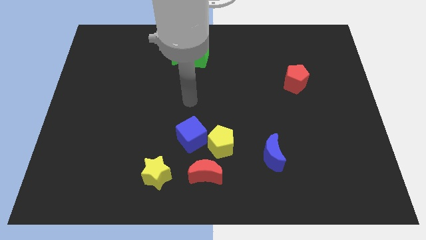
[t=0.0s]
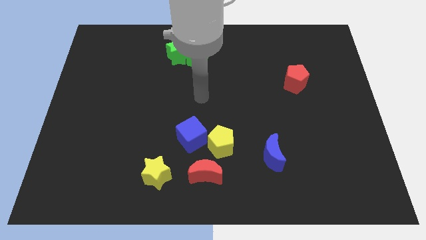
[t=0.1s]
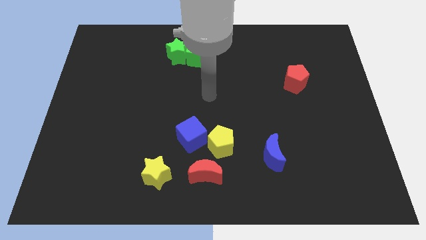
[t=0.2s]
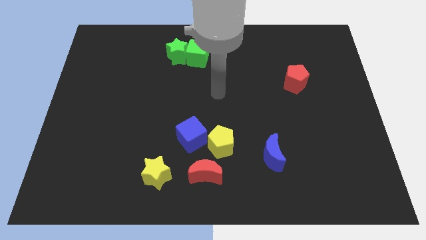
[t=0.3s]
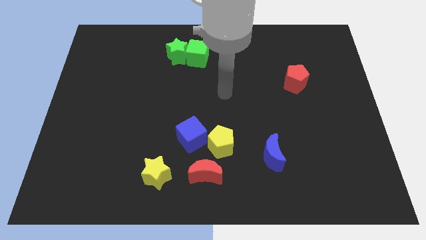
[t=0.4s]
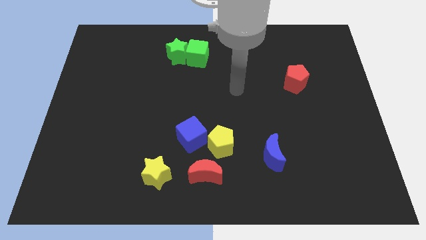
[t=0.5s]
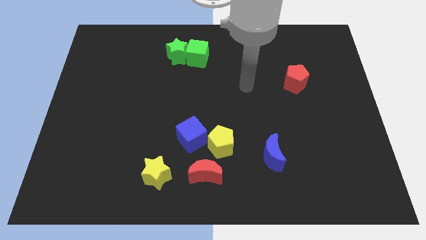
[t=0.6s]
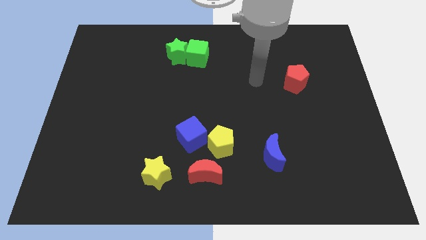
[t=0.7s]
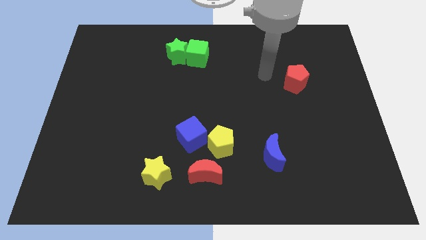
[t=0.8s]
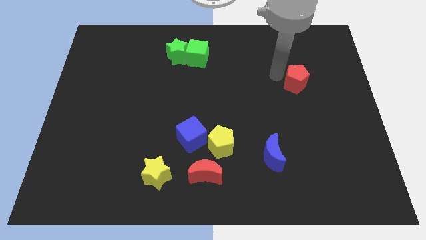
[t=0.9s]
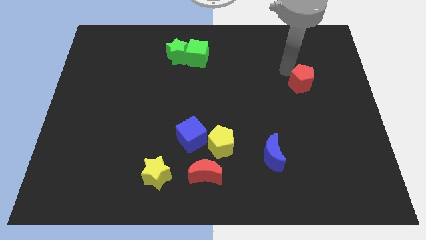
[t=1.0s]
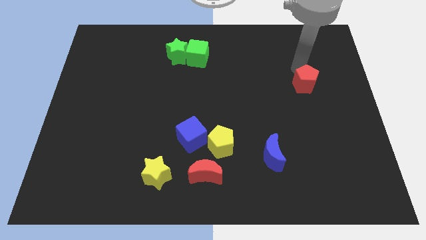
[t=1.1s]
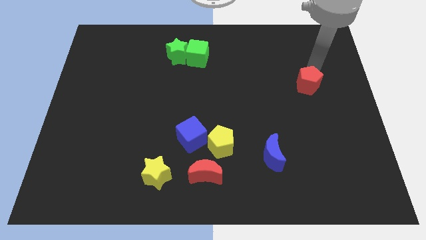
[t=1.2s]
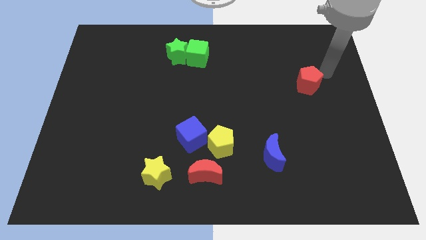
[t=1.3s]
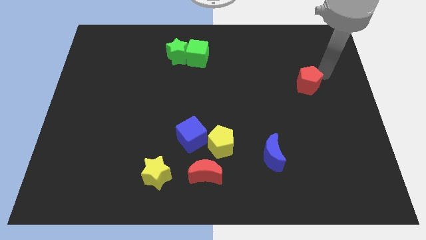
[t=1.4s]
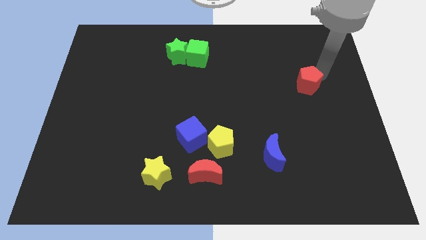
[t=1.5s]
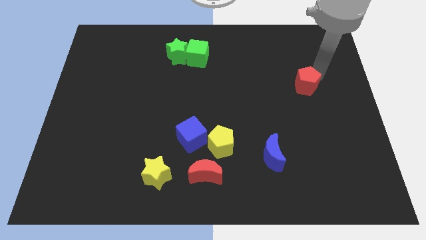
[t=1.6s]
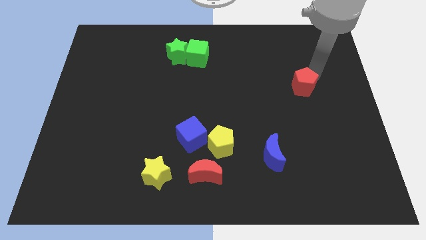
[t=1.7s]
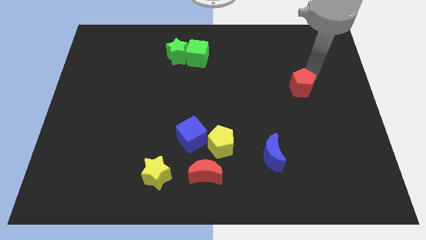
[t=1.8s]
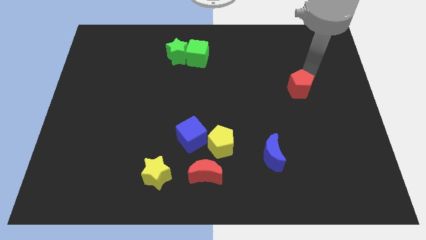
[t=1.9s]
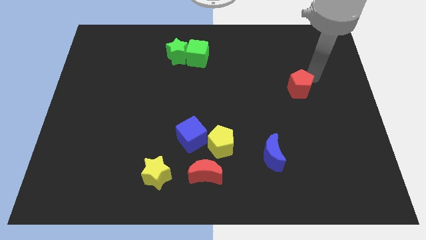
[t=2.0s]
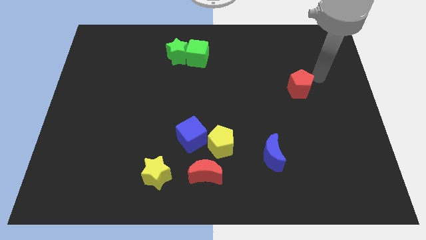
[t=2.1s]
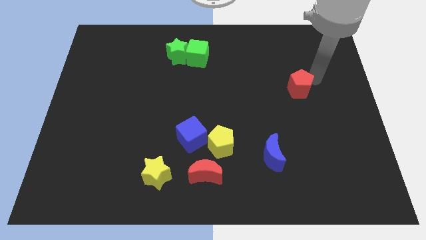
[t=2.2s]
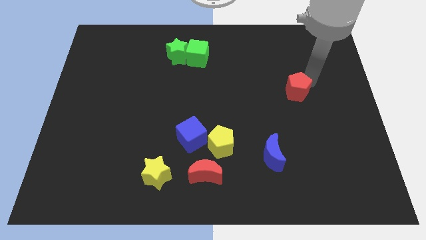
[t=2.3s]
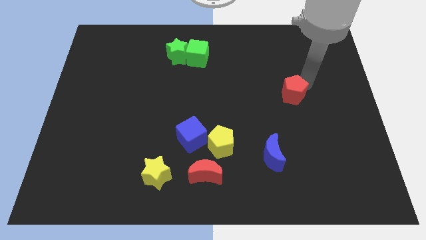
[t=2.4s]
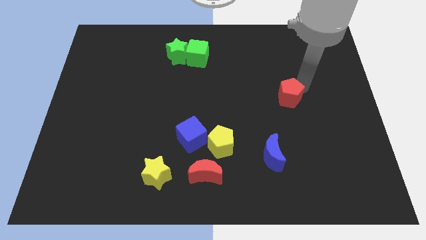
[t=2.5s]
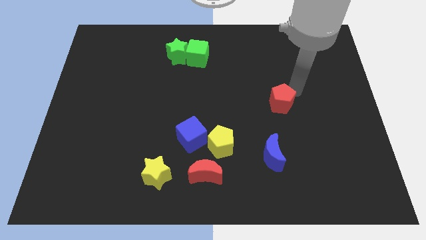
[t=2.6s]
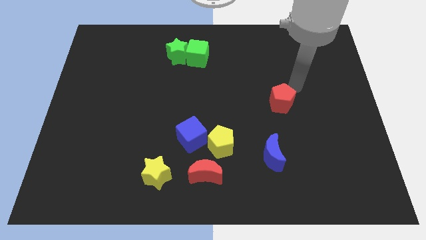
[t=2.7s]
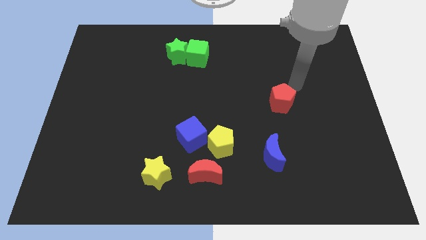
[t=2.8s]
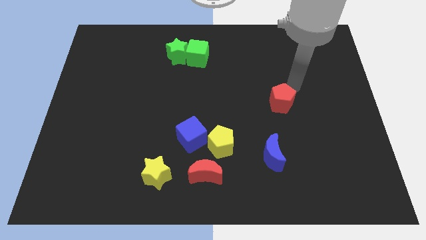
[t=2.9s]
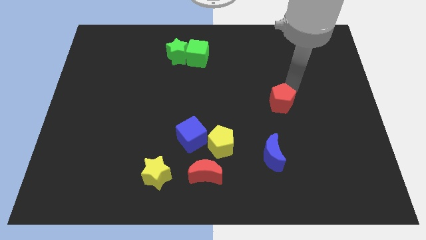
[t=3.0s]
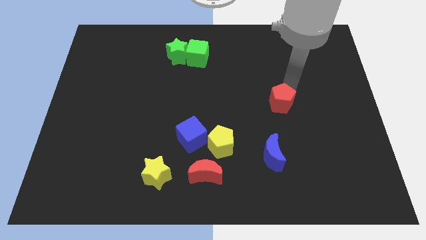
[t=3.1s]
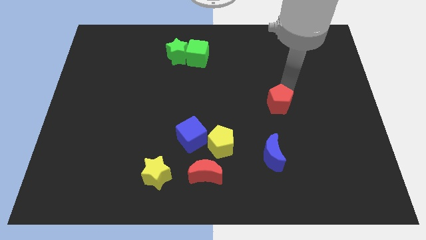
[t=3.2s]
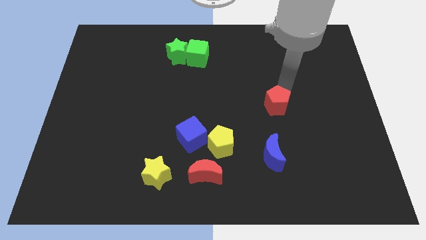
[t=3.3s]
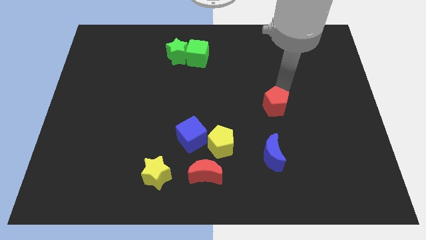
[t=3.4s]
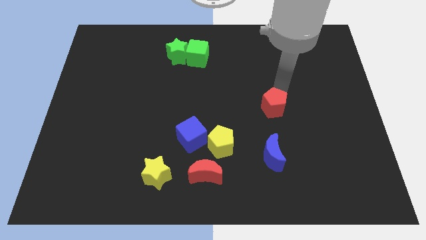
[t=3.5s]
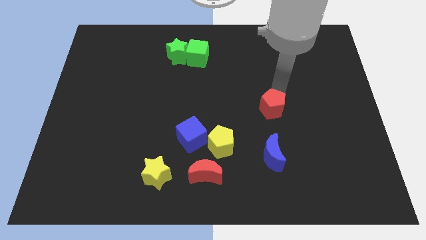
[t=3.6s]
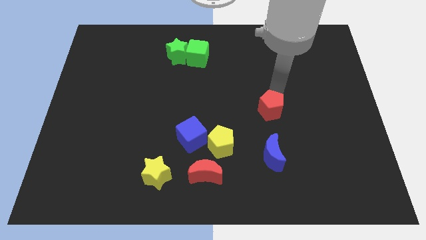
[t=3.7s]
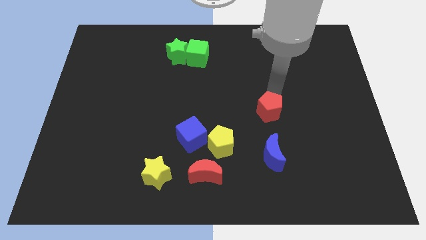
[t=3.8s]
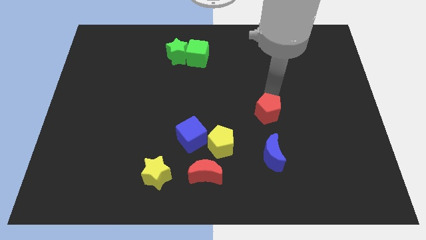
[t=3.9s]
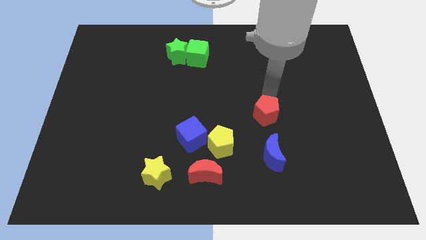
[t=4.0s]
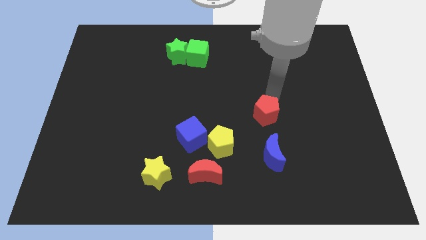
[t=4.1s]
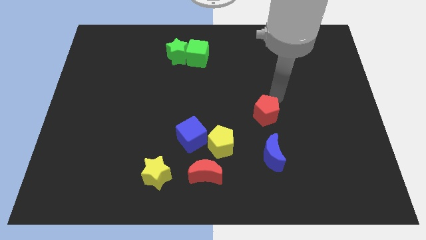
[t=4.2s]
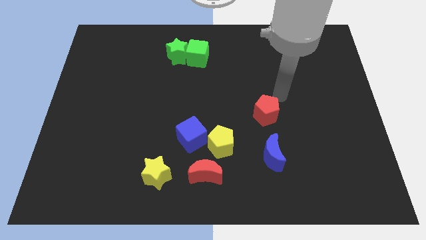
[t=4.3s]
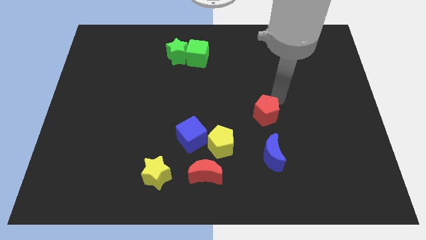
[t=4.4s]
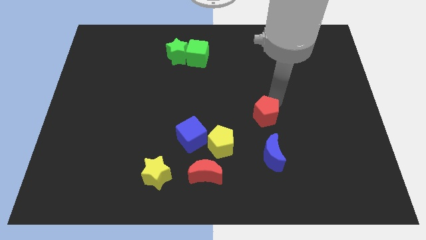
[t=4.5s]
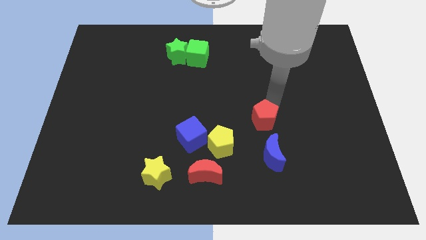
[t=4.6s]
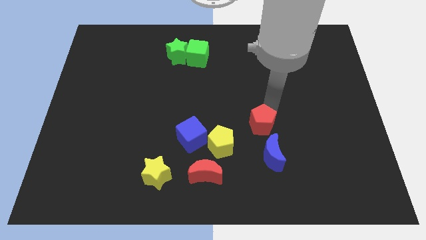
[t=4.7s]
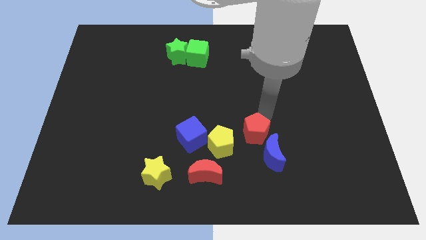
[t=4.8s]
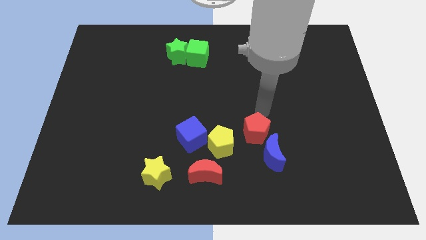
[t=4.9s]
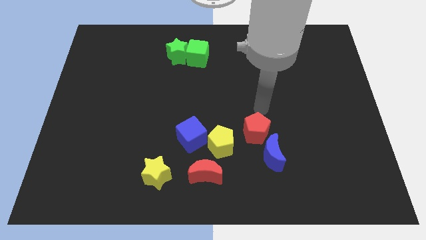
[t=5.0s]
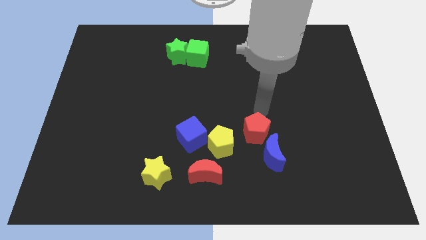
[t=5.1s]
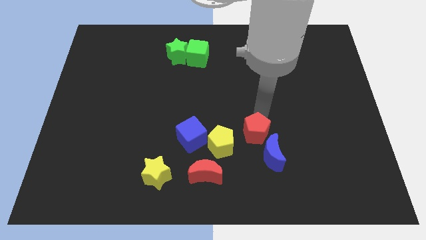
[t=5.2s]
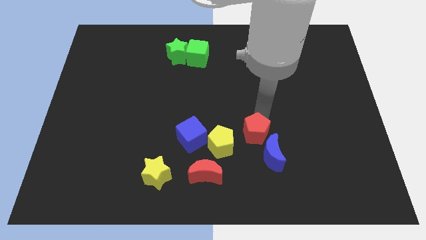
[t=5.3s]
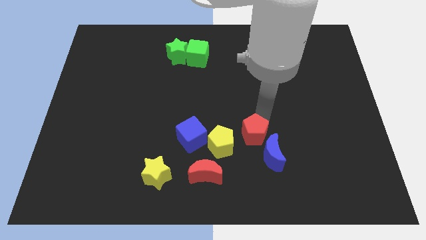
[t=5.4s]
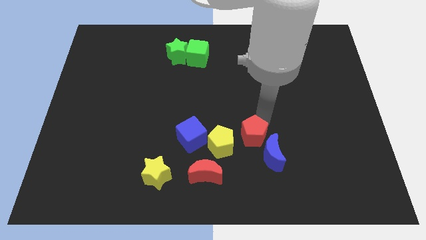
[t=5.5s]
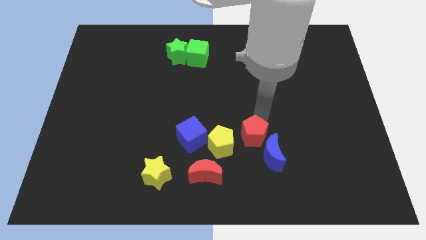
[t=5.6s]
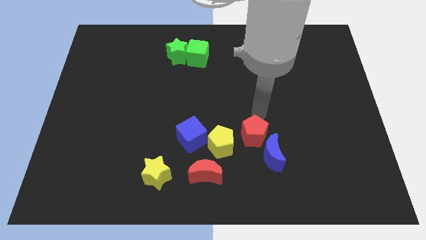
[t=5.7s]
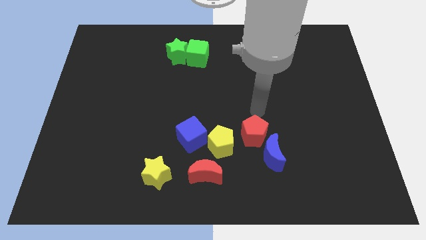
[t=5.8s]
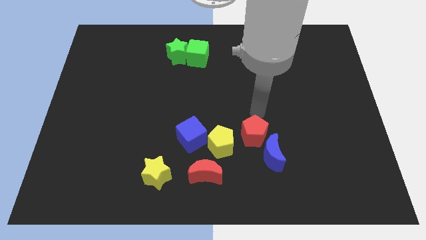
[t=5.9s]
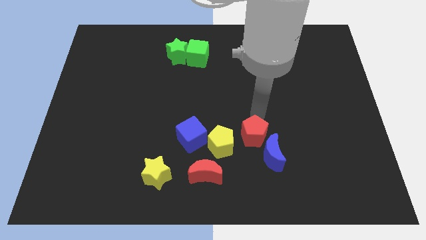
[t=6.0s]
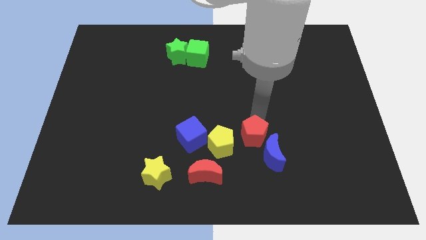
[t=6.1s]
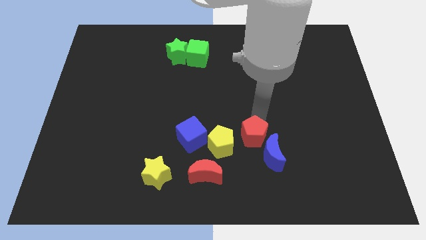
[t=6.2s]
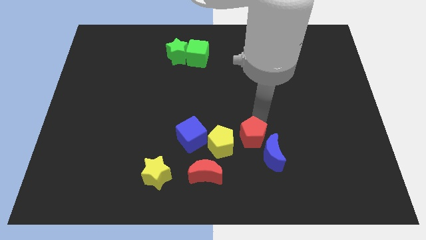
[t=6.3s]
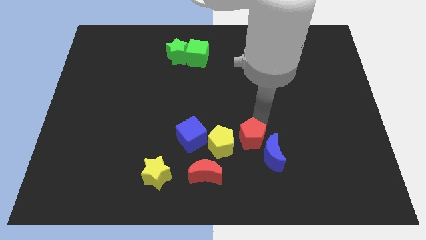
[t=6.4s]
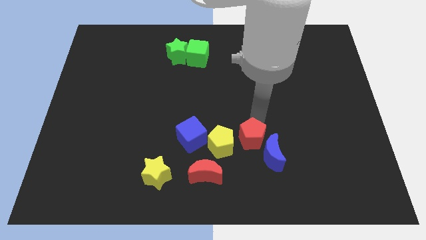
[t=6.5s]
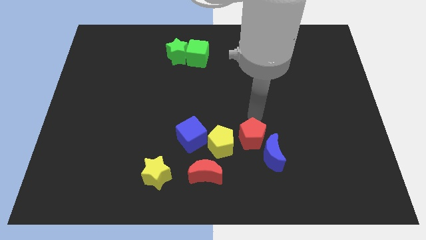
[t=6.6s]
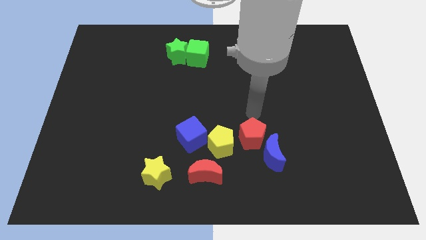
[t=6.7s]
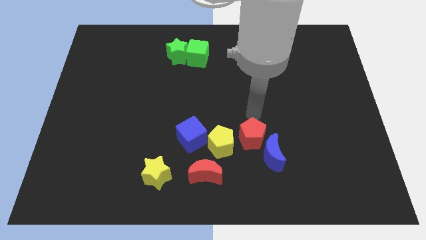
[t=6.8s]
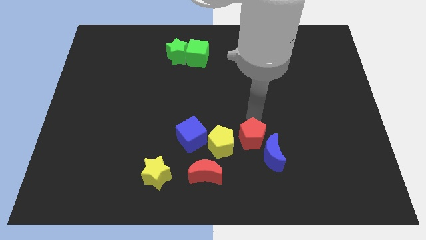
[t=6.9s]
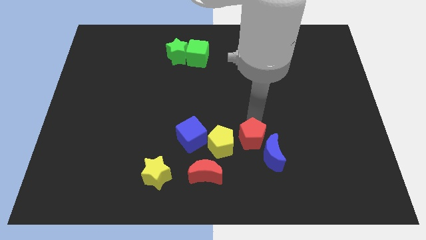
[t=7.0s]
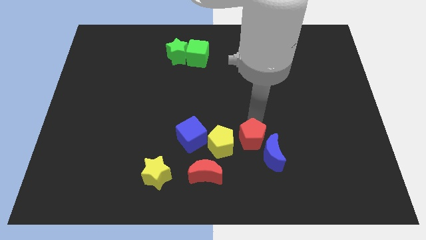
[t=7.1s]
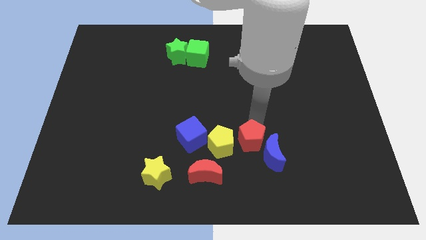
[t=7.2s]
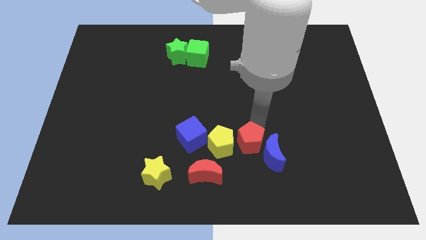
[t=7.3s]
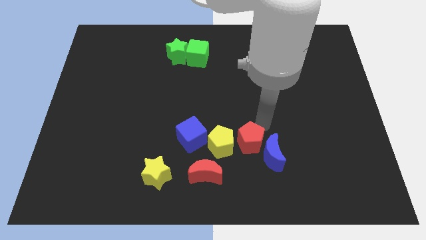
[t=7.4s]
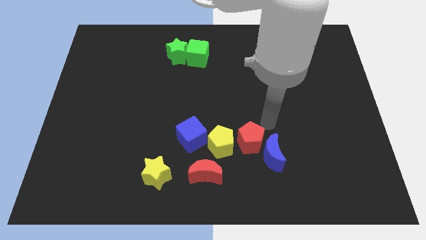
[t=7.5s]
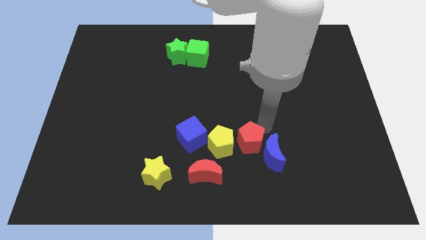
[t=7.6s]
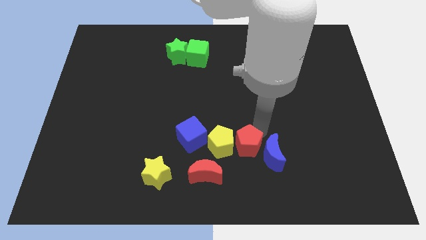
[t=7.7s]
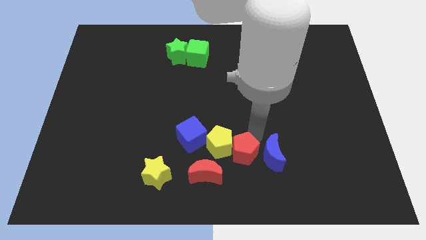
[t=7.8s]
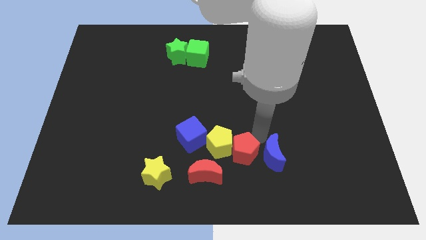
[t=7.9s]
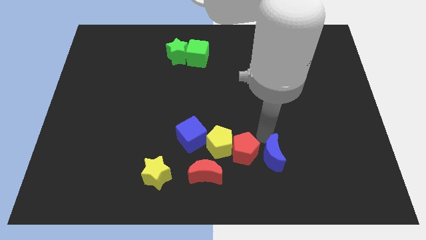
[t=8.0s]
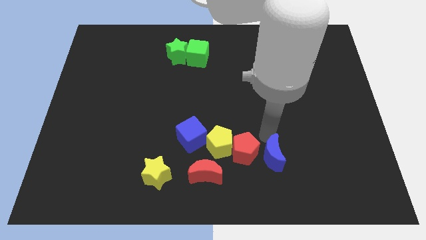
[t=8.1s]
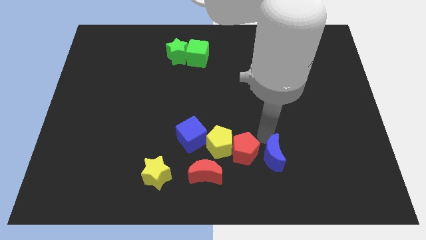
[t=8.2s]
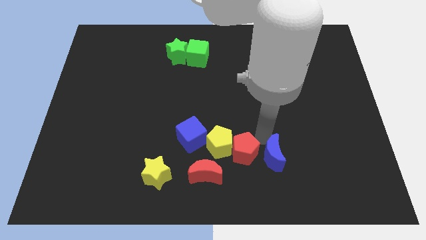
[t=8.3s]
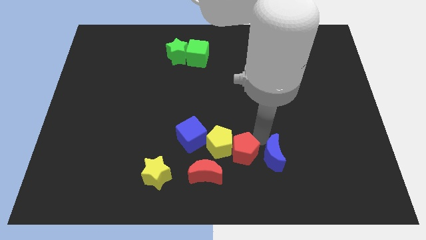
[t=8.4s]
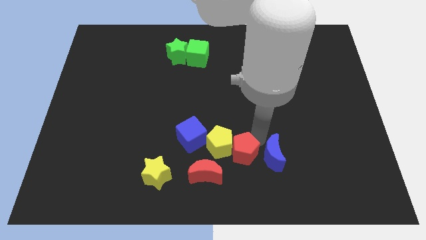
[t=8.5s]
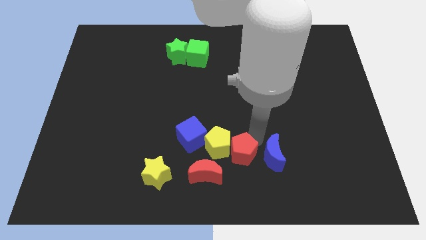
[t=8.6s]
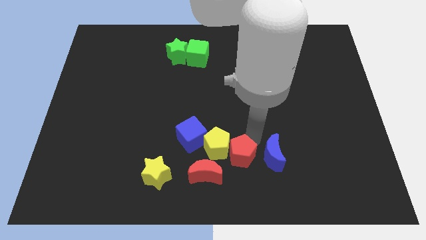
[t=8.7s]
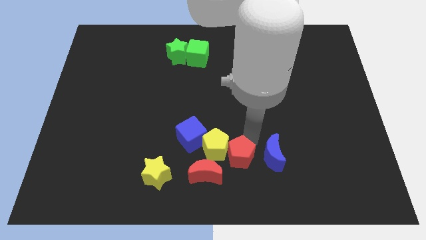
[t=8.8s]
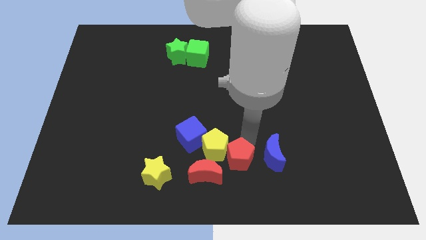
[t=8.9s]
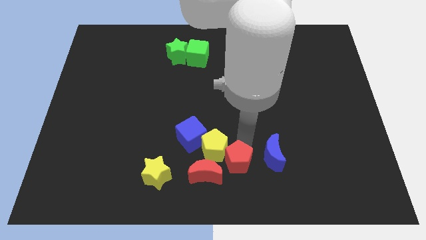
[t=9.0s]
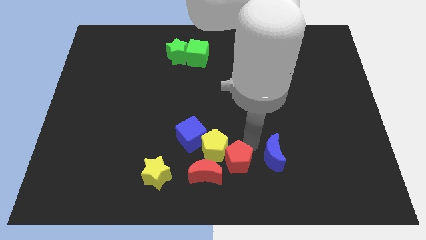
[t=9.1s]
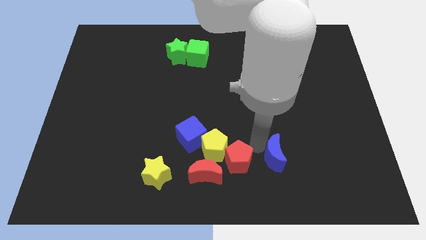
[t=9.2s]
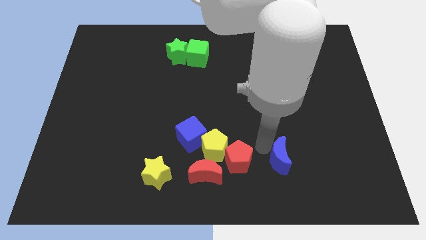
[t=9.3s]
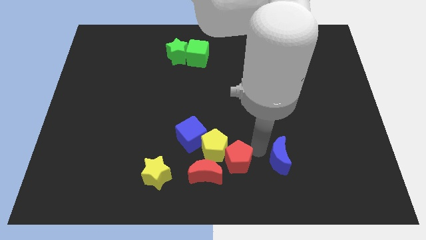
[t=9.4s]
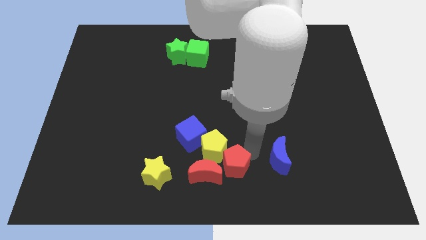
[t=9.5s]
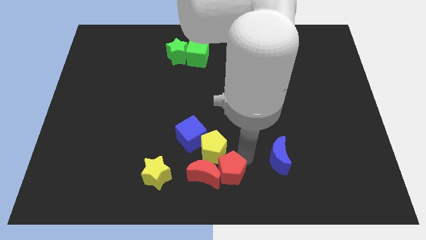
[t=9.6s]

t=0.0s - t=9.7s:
push the red pentagon close to the red moon
